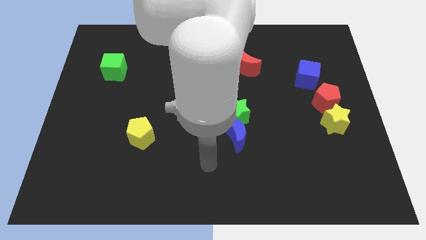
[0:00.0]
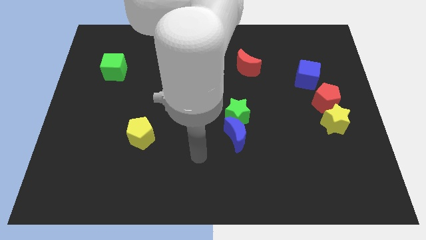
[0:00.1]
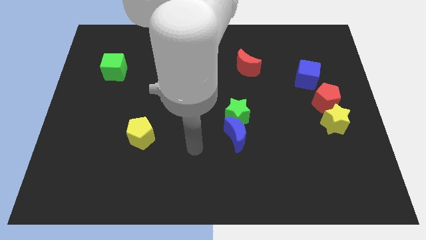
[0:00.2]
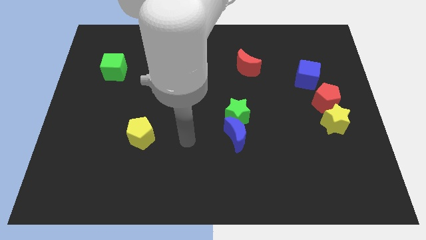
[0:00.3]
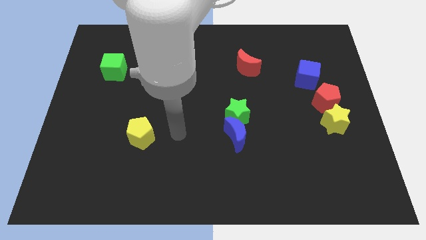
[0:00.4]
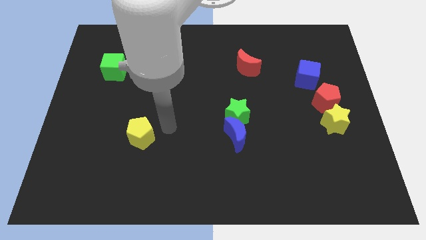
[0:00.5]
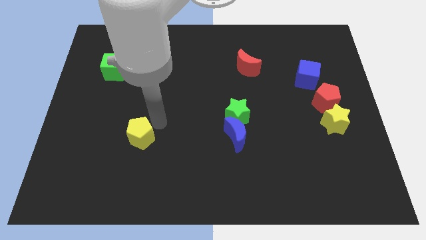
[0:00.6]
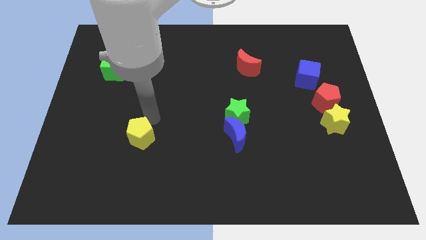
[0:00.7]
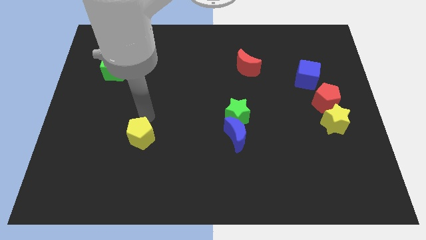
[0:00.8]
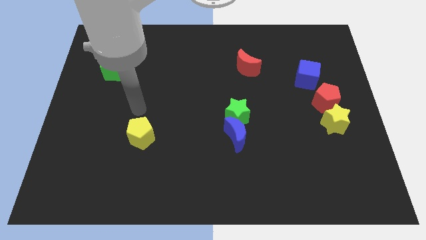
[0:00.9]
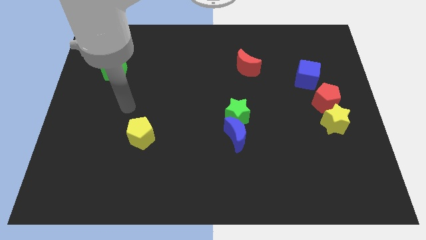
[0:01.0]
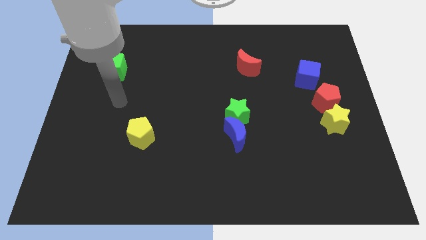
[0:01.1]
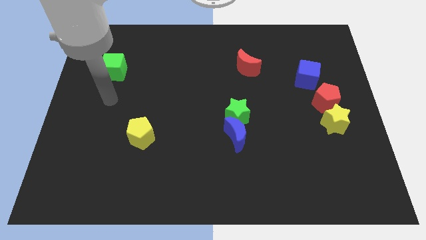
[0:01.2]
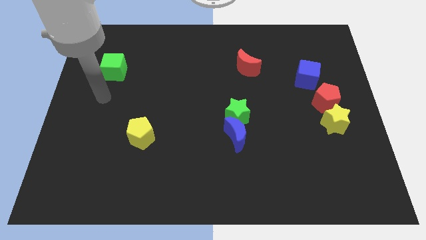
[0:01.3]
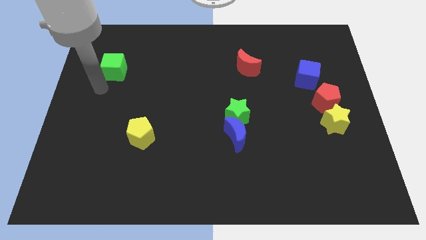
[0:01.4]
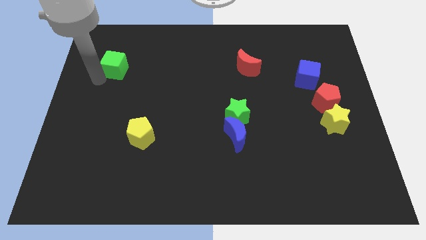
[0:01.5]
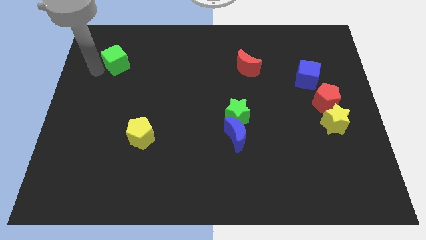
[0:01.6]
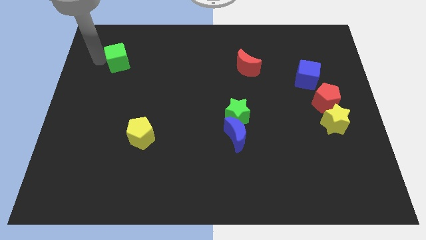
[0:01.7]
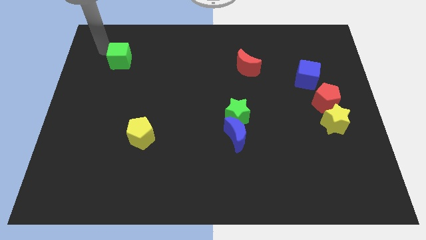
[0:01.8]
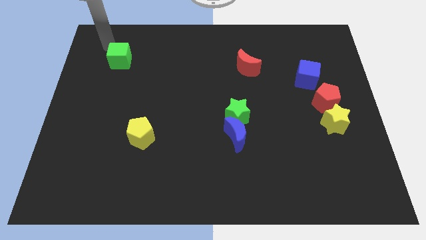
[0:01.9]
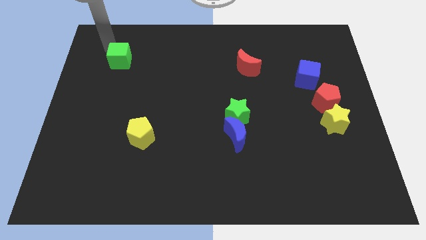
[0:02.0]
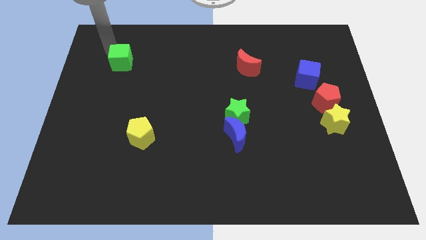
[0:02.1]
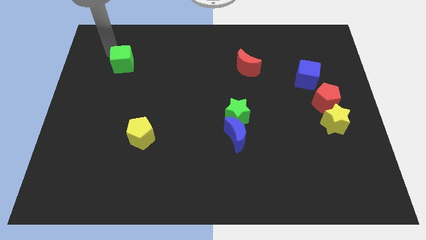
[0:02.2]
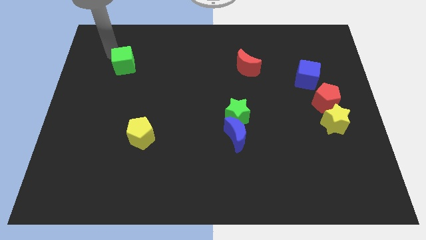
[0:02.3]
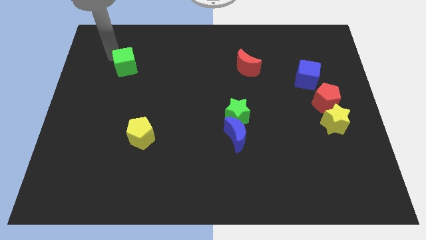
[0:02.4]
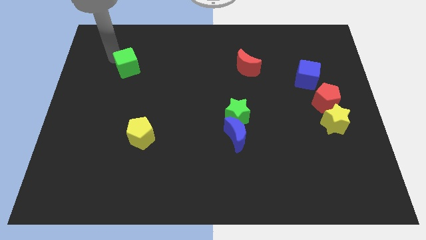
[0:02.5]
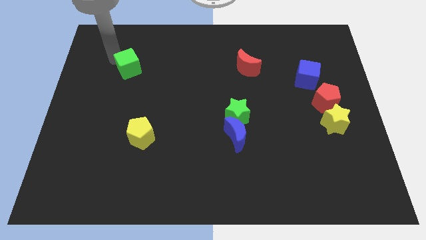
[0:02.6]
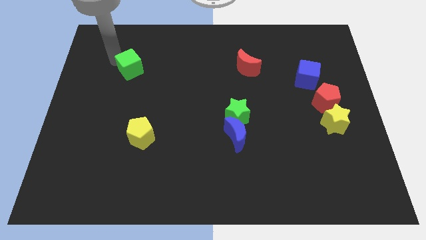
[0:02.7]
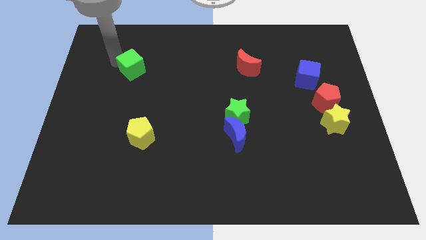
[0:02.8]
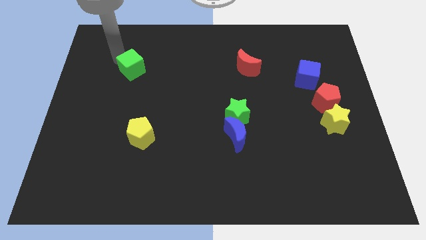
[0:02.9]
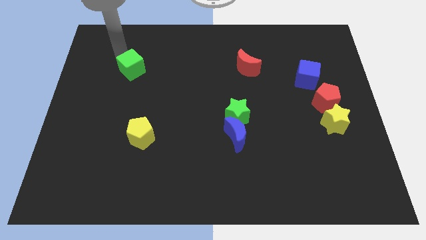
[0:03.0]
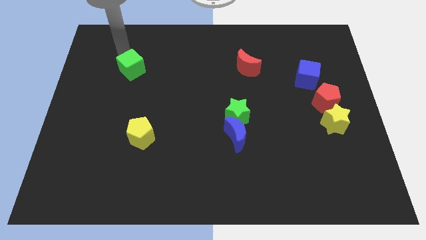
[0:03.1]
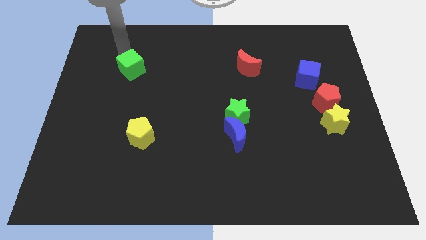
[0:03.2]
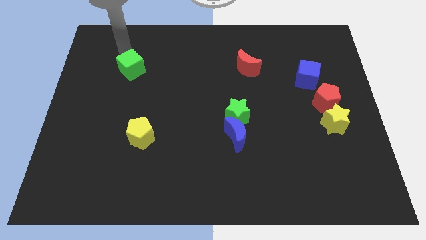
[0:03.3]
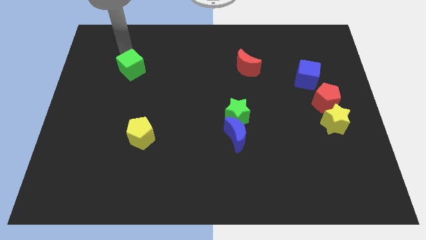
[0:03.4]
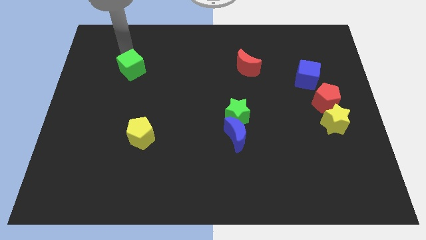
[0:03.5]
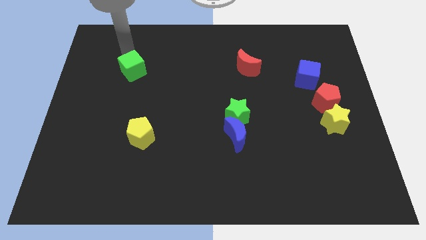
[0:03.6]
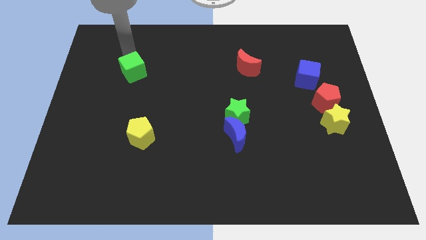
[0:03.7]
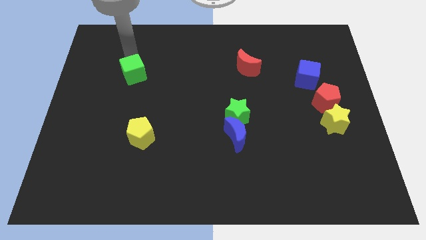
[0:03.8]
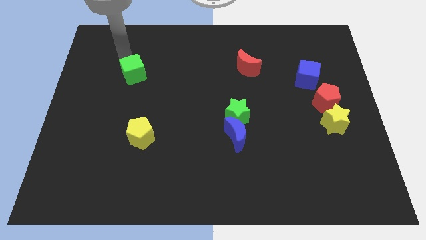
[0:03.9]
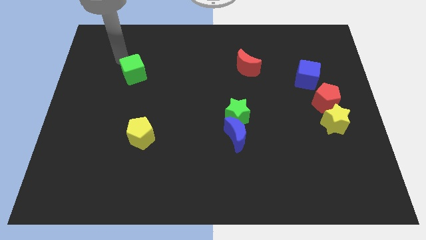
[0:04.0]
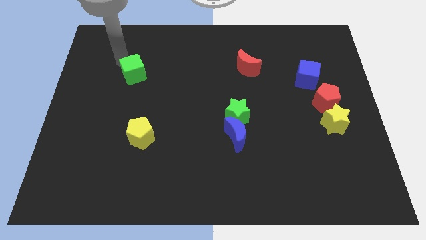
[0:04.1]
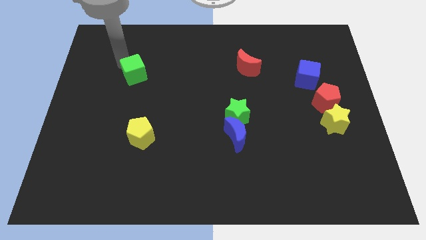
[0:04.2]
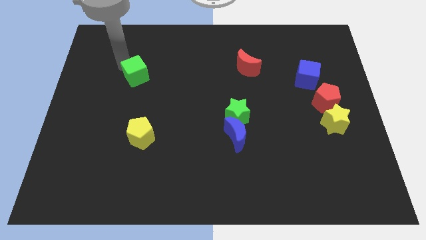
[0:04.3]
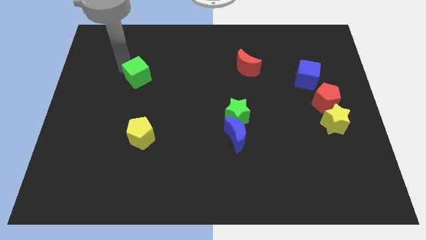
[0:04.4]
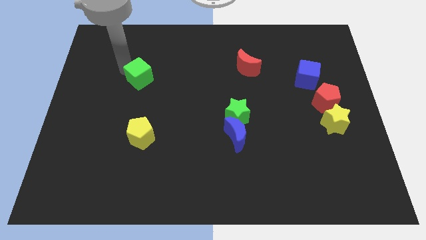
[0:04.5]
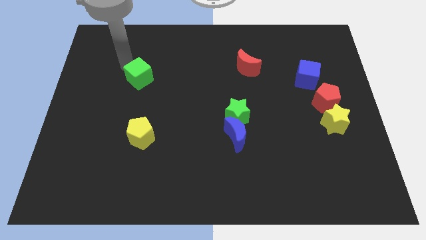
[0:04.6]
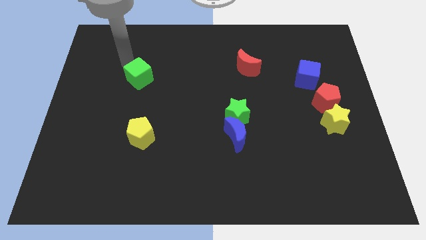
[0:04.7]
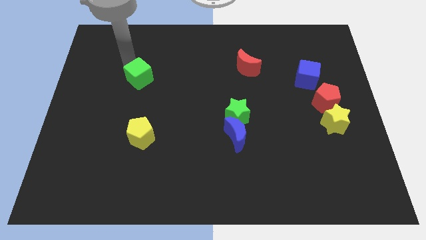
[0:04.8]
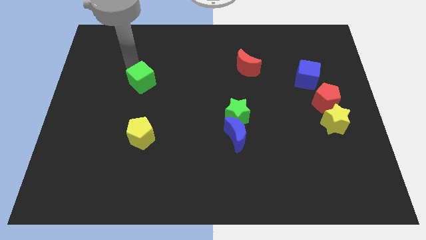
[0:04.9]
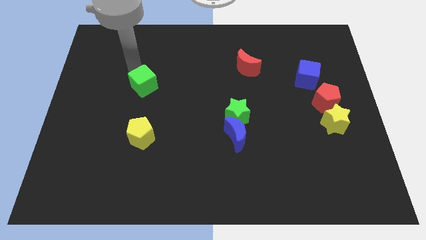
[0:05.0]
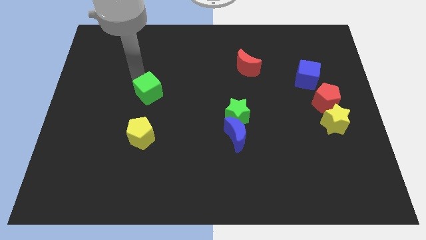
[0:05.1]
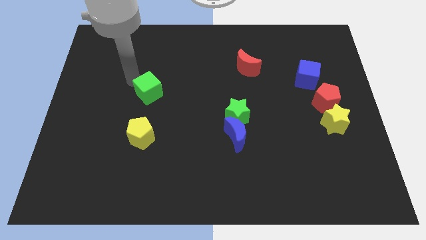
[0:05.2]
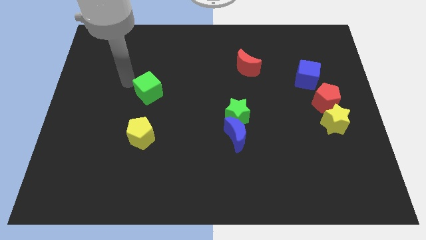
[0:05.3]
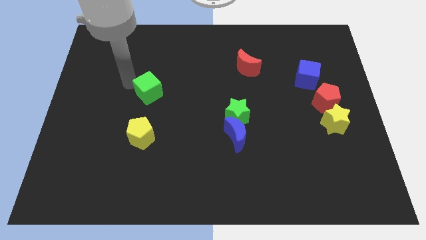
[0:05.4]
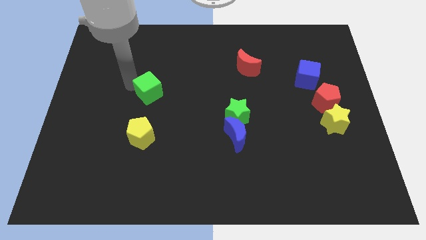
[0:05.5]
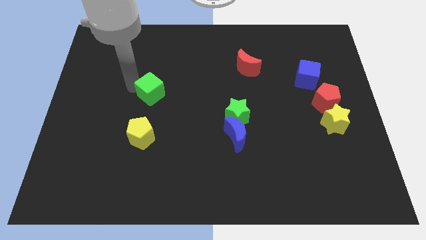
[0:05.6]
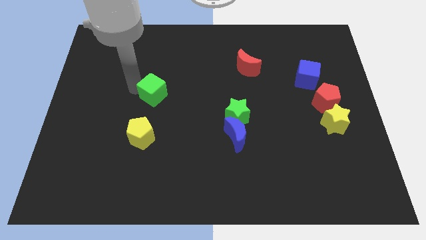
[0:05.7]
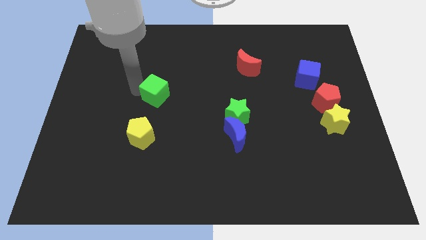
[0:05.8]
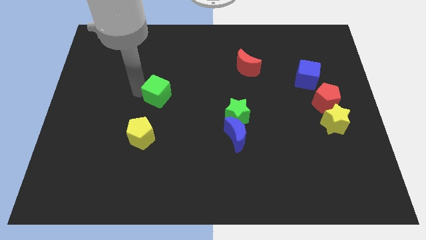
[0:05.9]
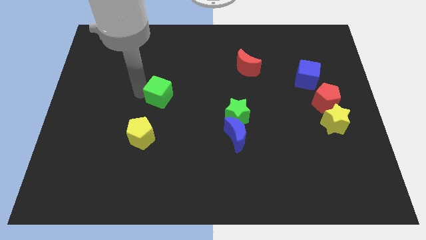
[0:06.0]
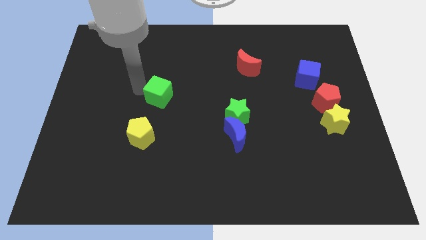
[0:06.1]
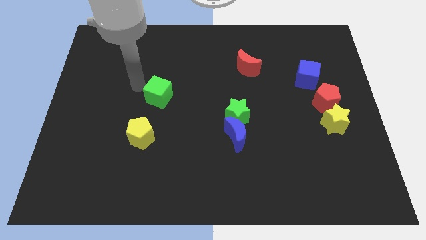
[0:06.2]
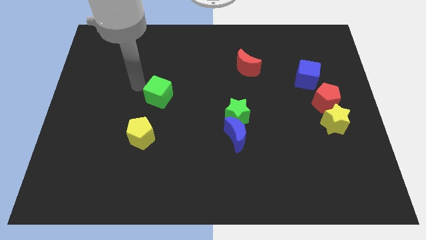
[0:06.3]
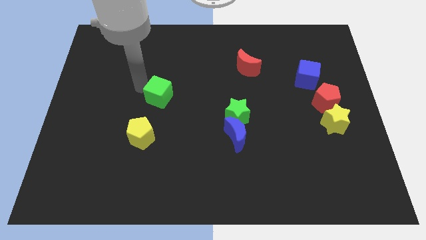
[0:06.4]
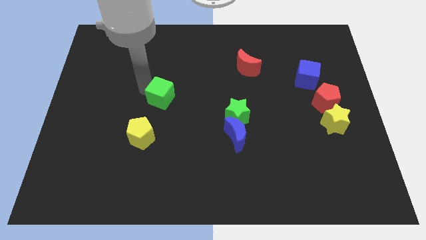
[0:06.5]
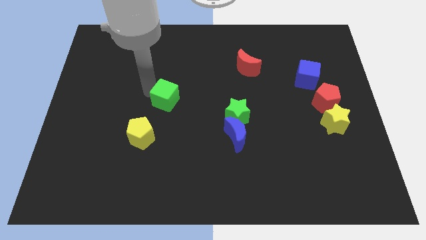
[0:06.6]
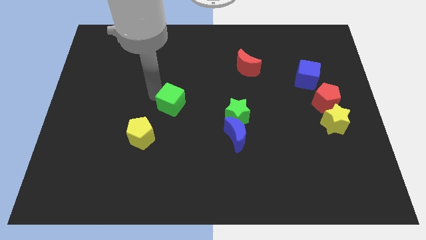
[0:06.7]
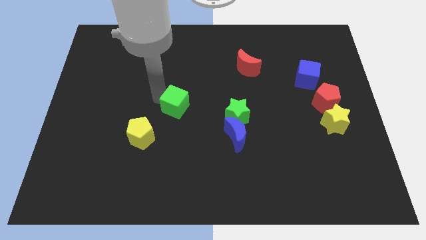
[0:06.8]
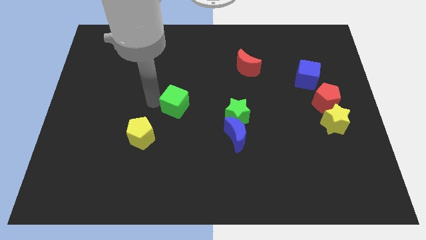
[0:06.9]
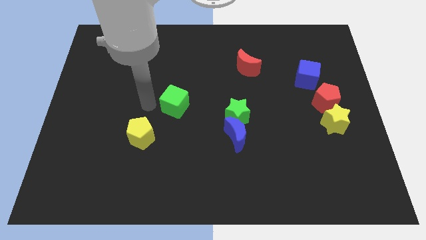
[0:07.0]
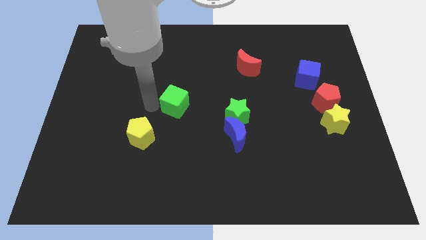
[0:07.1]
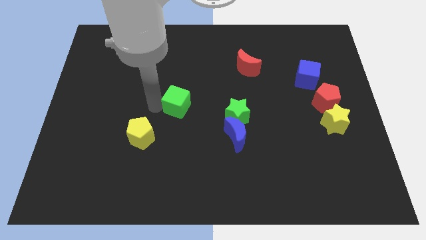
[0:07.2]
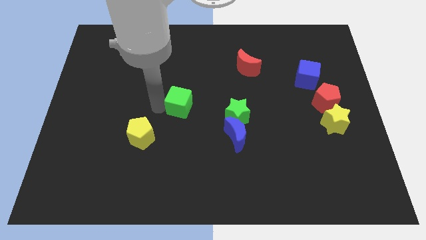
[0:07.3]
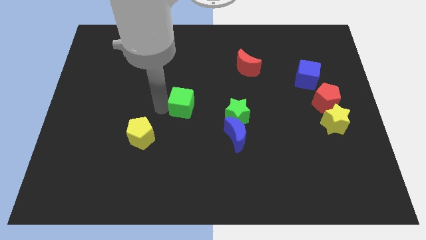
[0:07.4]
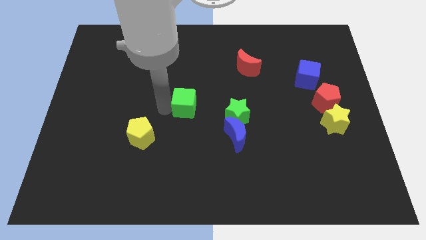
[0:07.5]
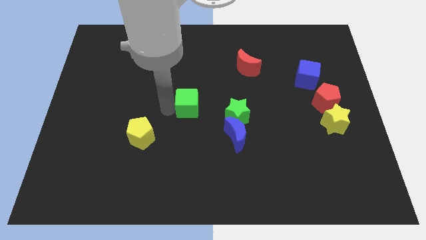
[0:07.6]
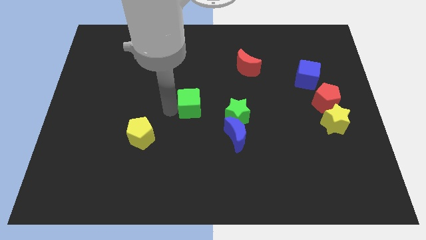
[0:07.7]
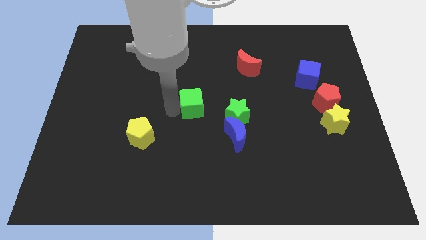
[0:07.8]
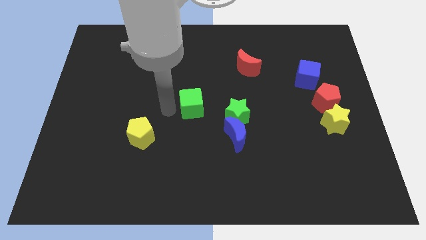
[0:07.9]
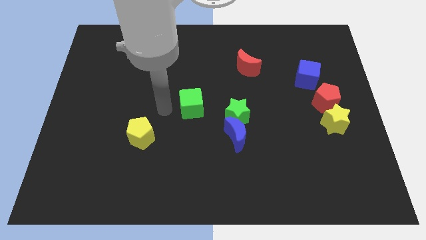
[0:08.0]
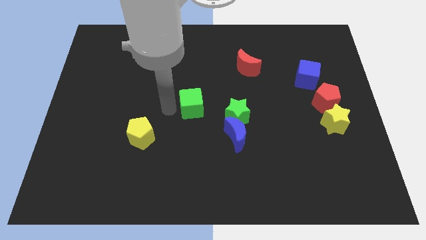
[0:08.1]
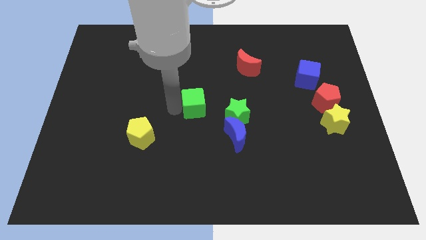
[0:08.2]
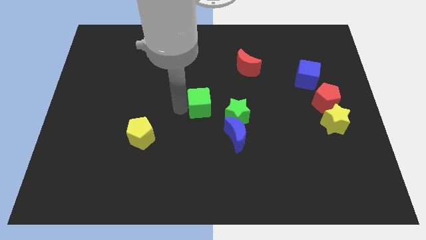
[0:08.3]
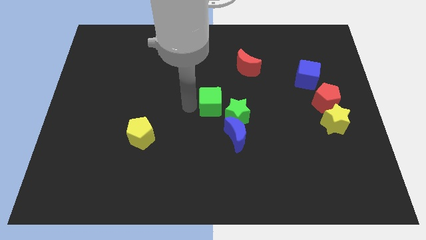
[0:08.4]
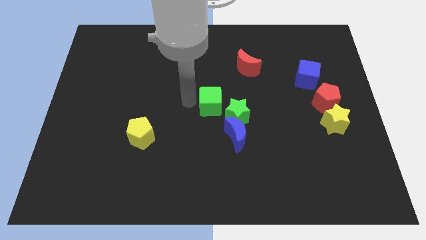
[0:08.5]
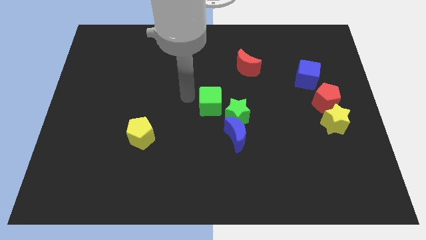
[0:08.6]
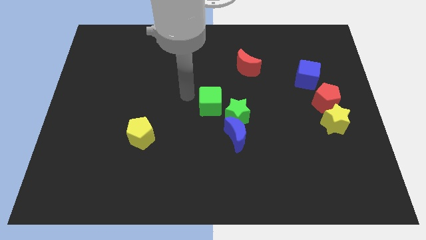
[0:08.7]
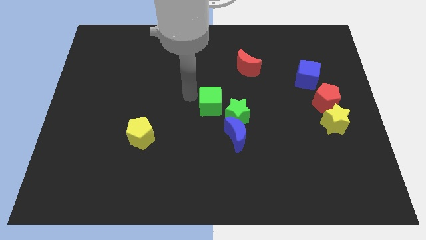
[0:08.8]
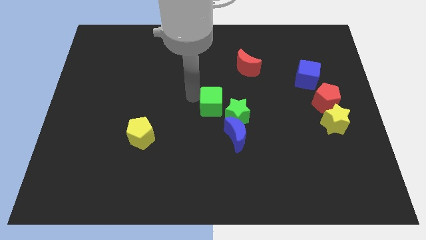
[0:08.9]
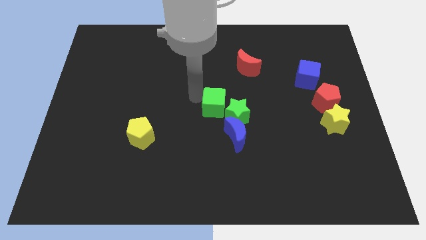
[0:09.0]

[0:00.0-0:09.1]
push the green cube towards the green star
